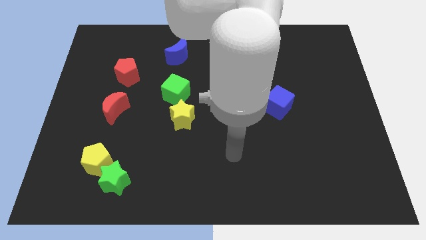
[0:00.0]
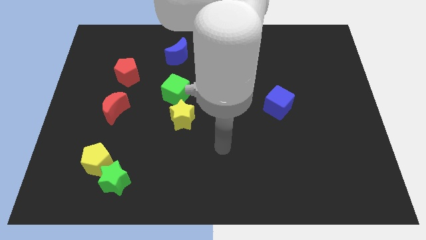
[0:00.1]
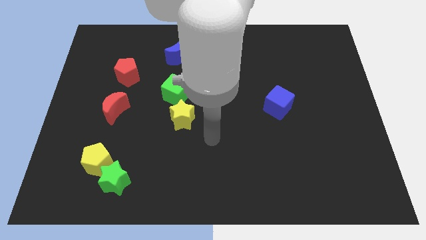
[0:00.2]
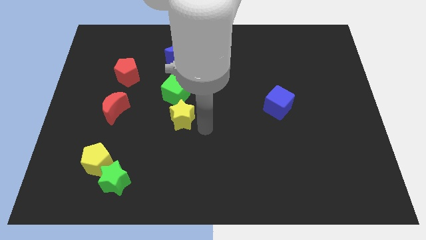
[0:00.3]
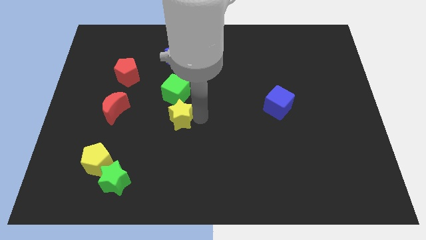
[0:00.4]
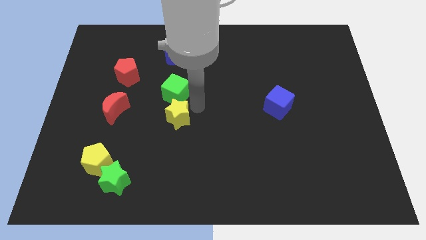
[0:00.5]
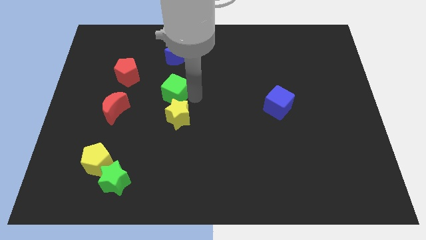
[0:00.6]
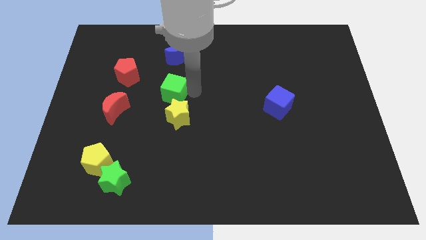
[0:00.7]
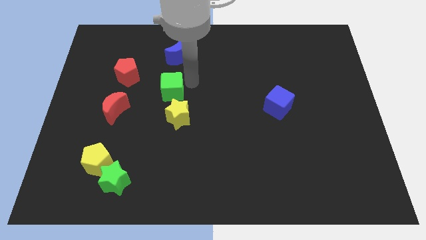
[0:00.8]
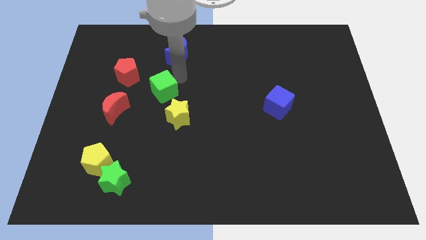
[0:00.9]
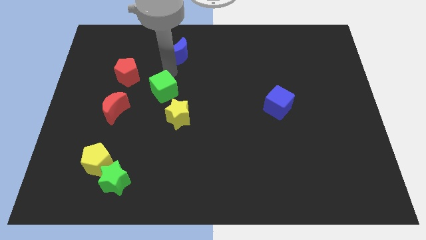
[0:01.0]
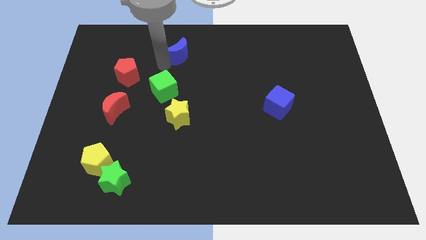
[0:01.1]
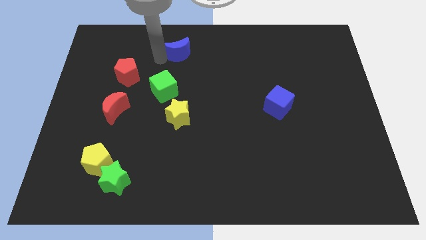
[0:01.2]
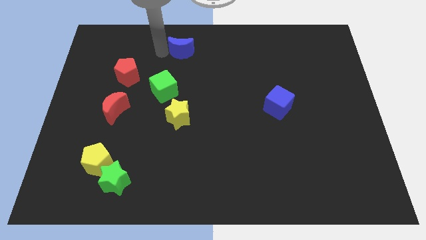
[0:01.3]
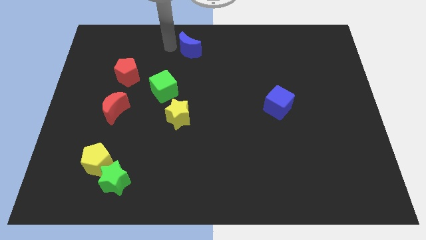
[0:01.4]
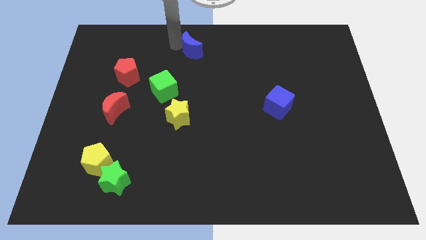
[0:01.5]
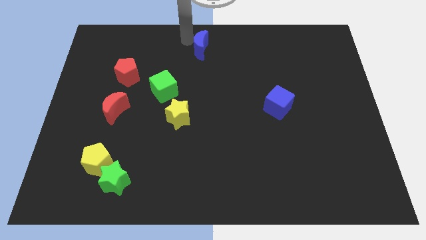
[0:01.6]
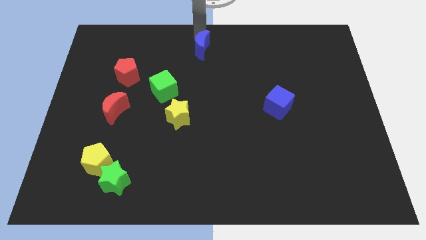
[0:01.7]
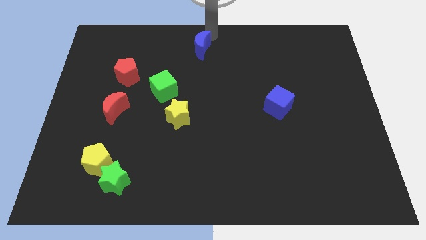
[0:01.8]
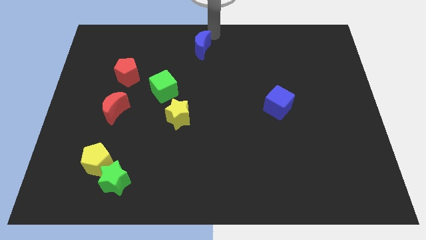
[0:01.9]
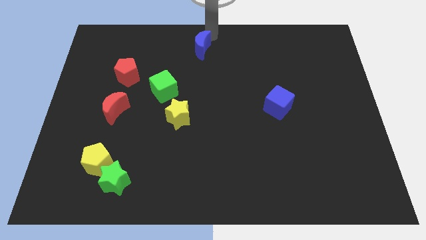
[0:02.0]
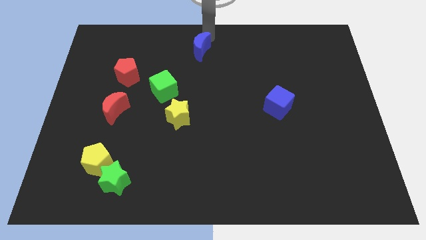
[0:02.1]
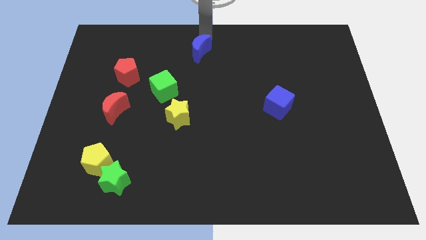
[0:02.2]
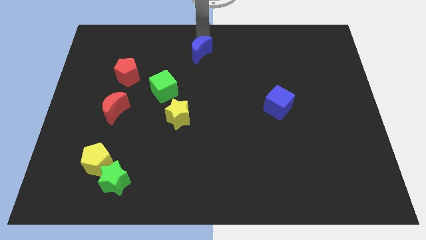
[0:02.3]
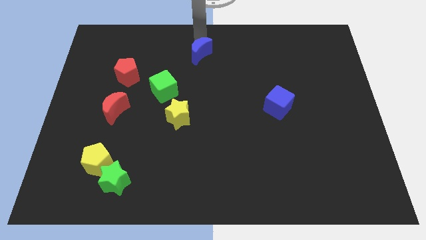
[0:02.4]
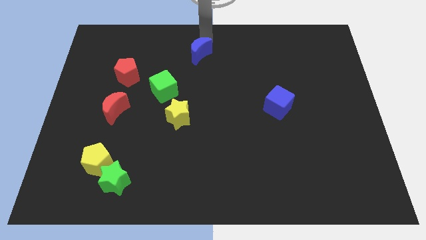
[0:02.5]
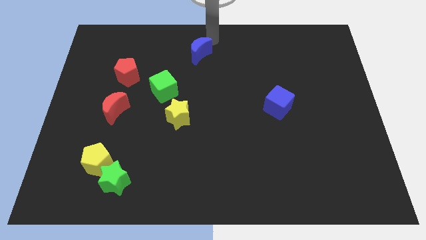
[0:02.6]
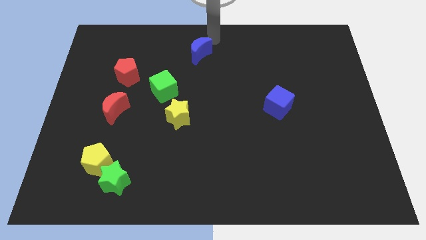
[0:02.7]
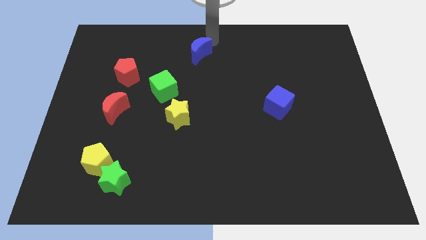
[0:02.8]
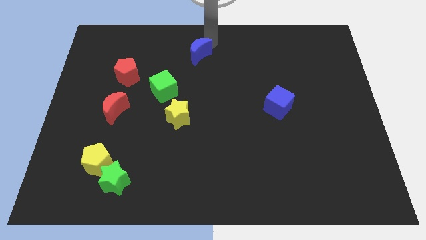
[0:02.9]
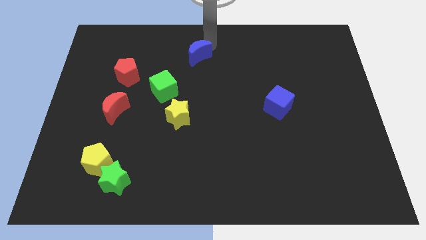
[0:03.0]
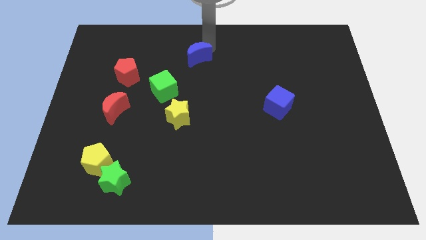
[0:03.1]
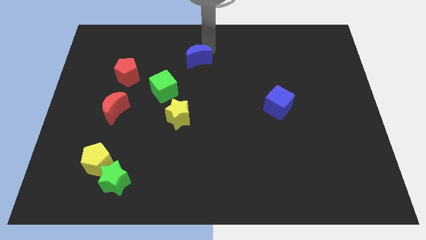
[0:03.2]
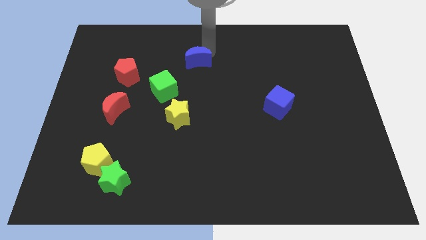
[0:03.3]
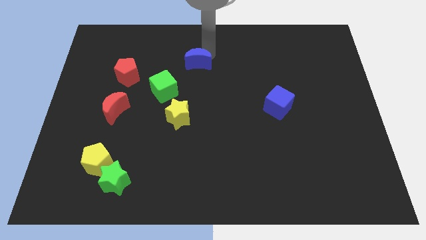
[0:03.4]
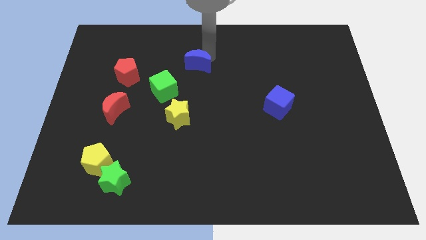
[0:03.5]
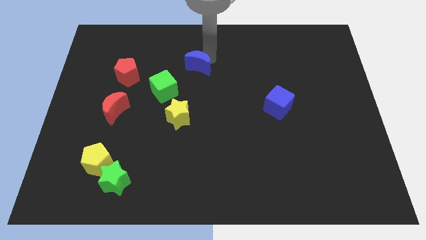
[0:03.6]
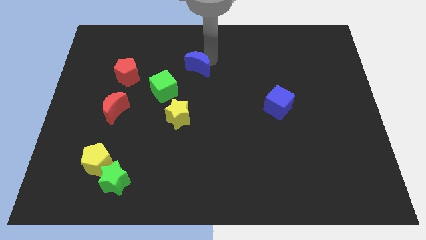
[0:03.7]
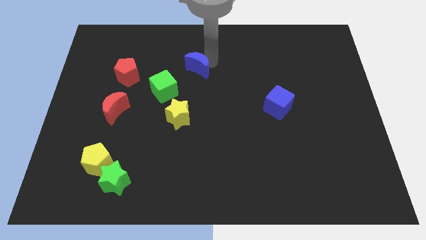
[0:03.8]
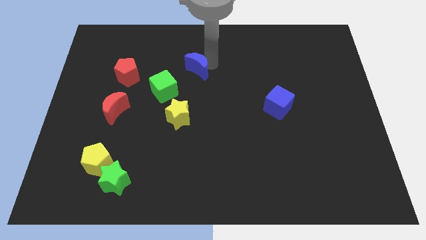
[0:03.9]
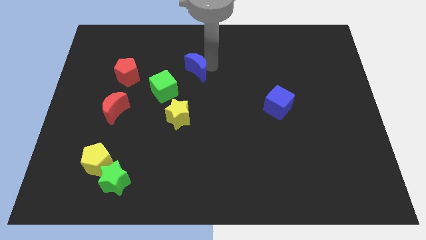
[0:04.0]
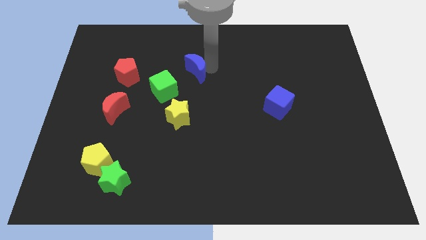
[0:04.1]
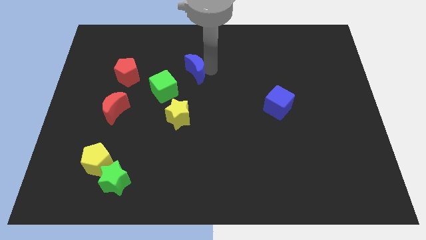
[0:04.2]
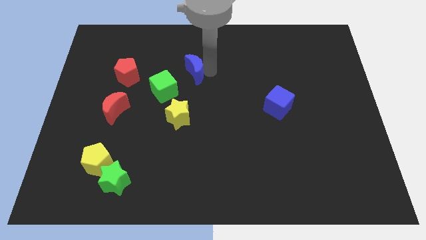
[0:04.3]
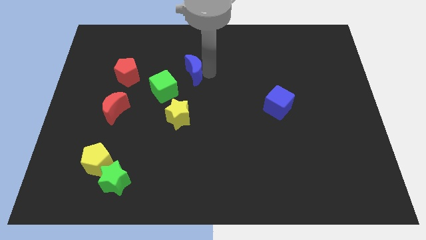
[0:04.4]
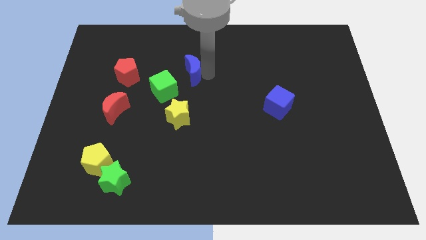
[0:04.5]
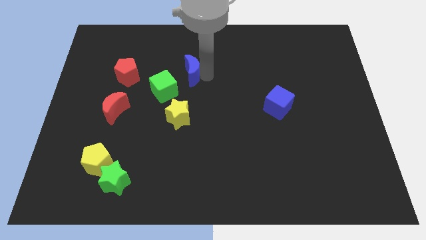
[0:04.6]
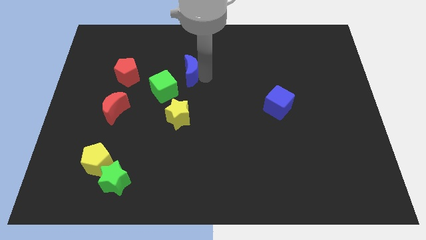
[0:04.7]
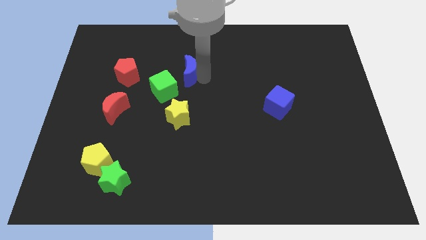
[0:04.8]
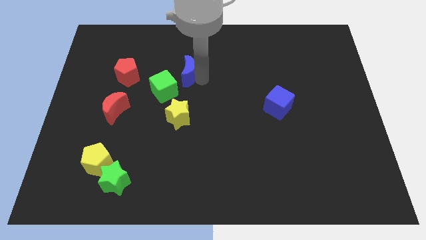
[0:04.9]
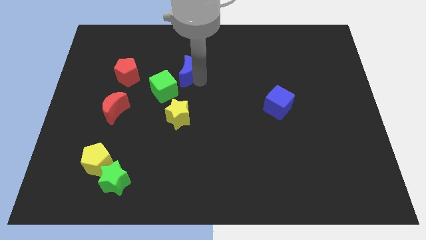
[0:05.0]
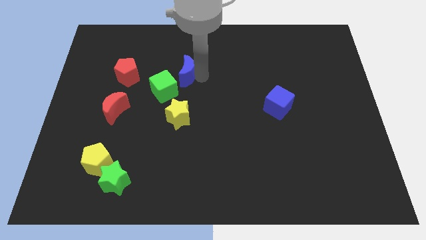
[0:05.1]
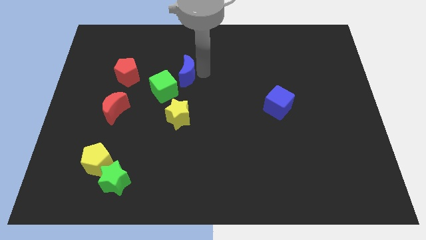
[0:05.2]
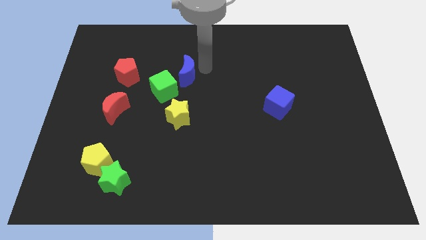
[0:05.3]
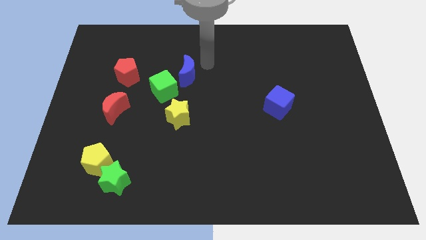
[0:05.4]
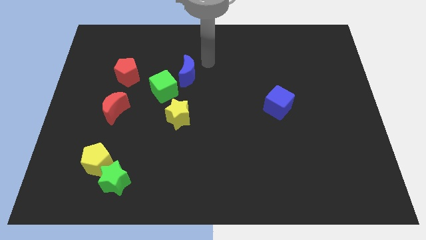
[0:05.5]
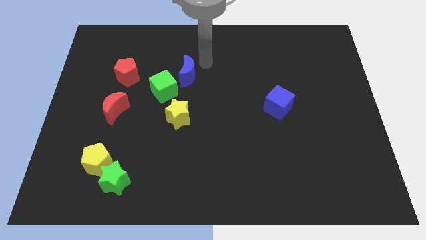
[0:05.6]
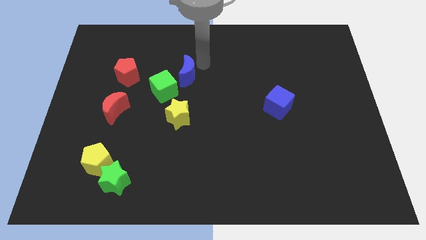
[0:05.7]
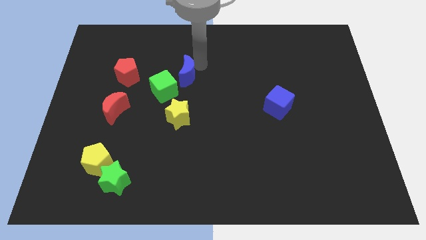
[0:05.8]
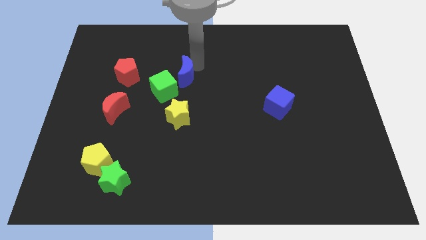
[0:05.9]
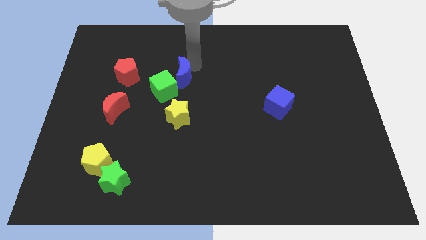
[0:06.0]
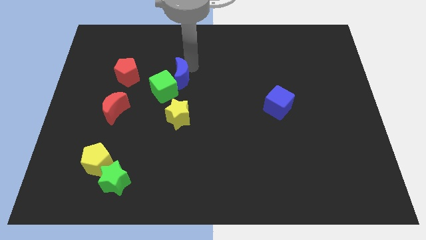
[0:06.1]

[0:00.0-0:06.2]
move the blue moon close to the green cube

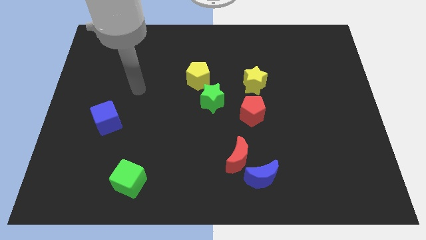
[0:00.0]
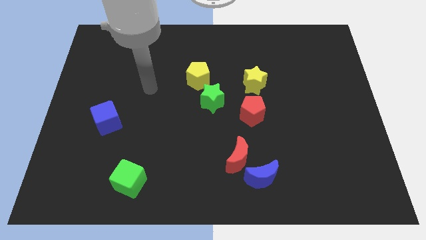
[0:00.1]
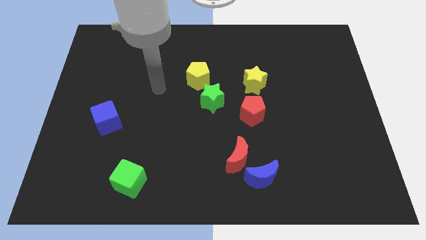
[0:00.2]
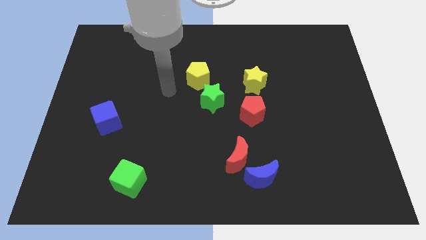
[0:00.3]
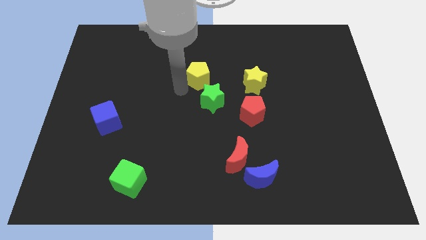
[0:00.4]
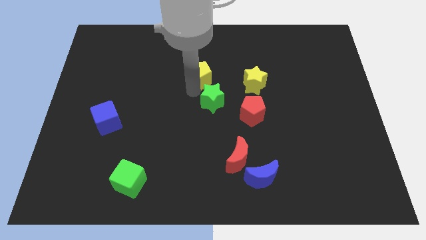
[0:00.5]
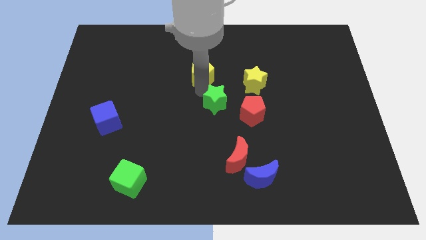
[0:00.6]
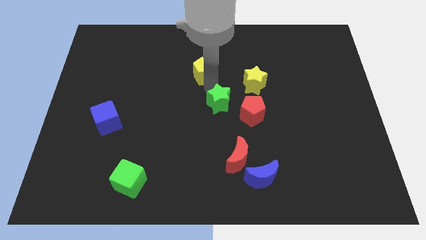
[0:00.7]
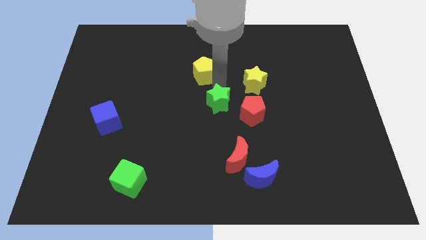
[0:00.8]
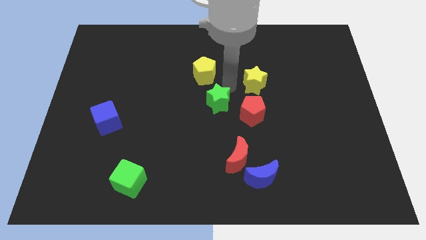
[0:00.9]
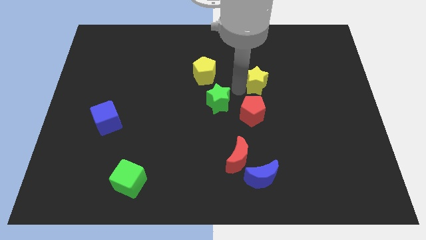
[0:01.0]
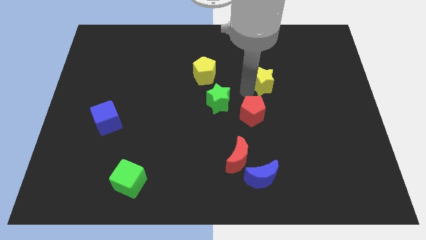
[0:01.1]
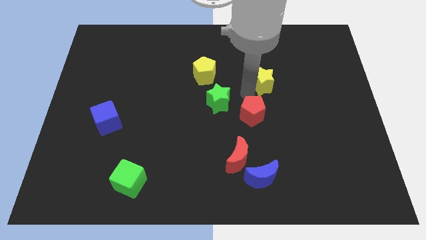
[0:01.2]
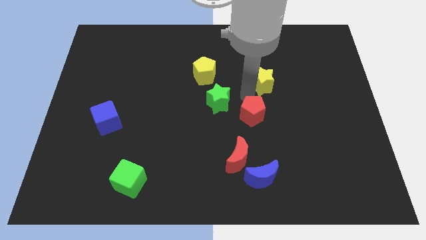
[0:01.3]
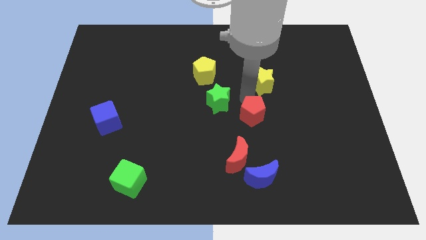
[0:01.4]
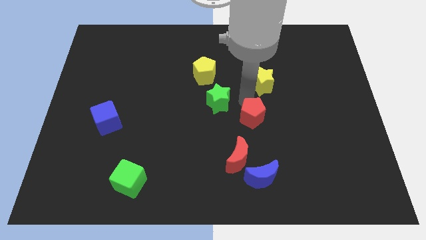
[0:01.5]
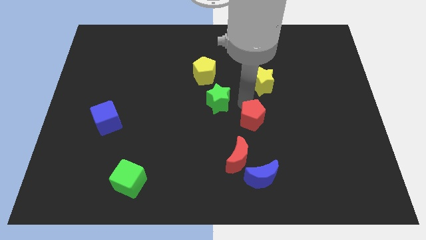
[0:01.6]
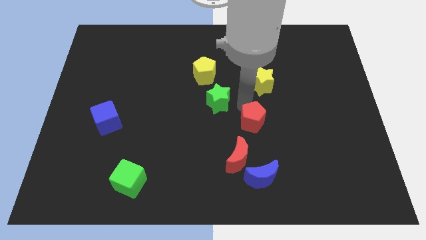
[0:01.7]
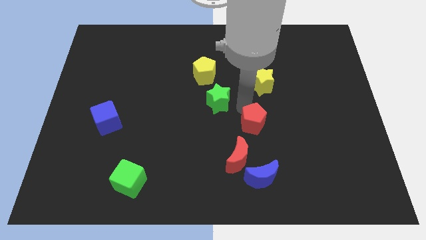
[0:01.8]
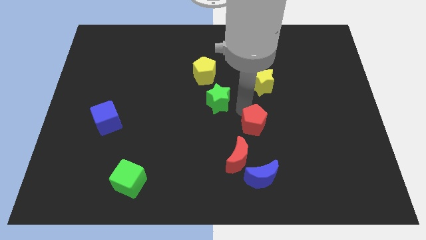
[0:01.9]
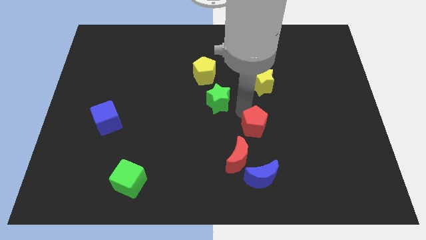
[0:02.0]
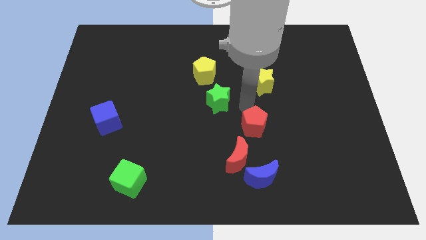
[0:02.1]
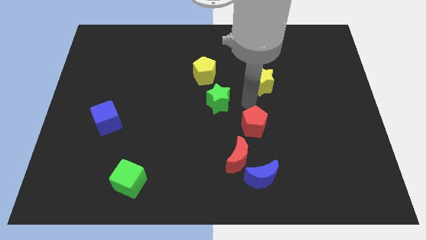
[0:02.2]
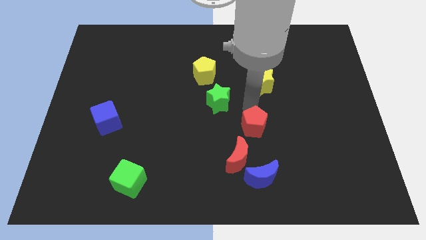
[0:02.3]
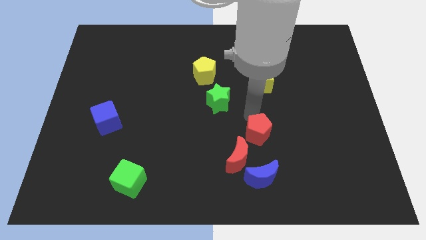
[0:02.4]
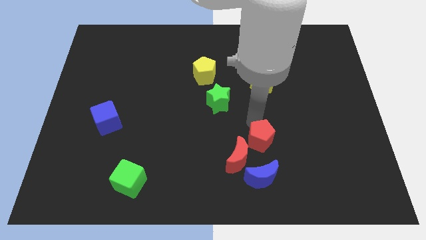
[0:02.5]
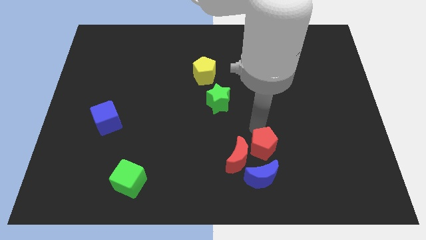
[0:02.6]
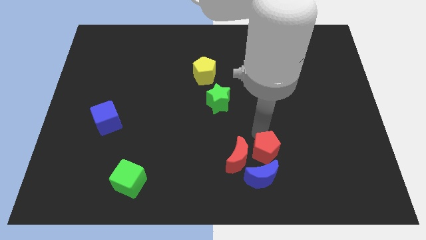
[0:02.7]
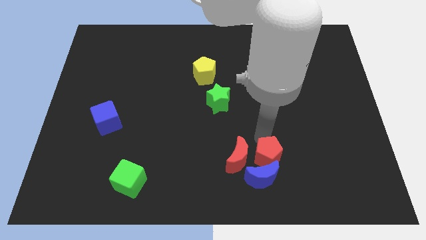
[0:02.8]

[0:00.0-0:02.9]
push the red pentagon towards the blue moon
